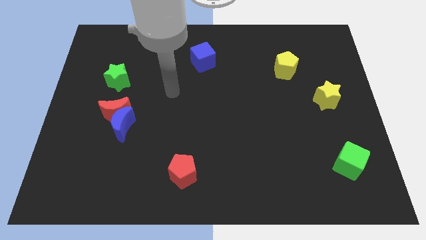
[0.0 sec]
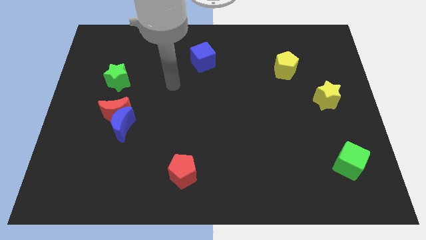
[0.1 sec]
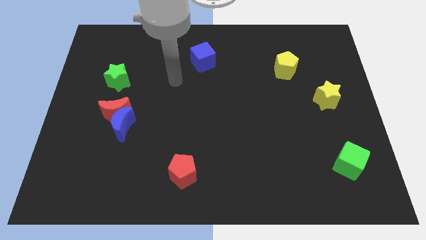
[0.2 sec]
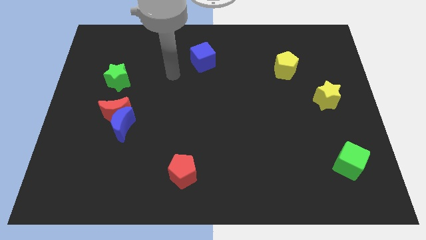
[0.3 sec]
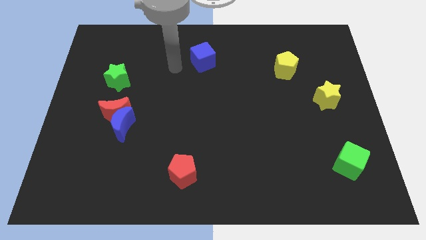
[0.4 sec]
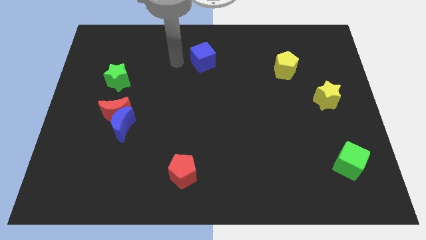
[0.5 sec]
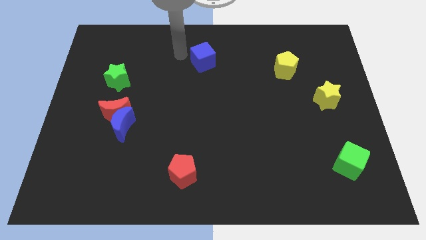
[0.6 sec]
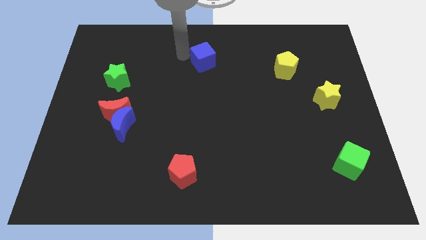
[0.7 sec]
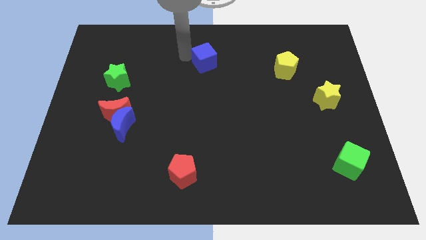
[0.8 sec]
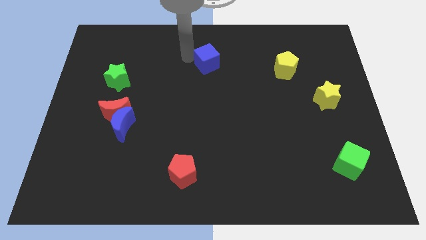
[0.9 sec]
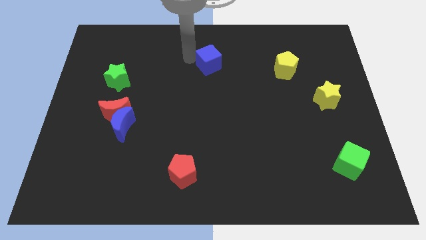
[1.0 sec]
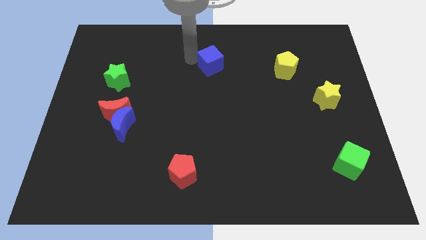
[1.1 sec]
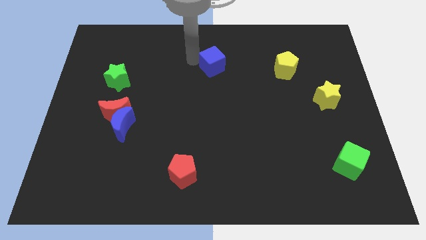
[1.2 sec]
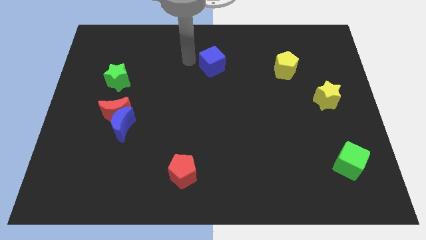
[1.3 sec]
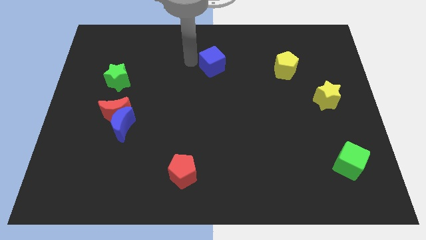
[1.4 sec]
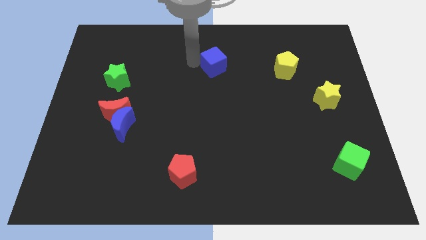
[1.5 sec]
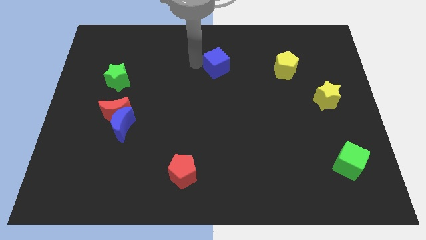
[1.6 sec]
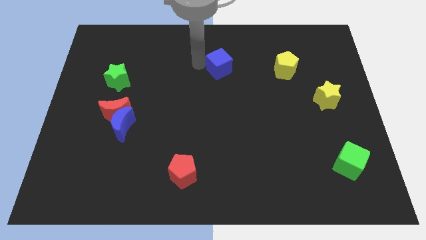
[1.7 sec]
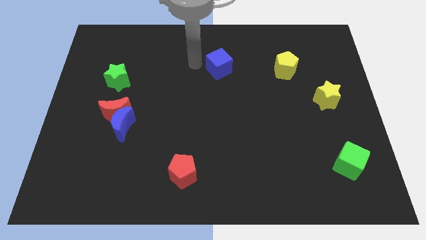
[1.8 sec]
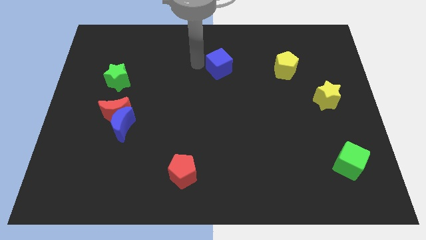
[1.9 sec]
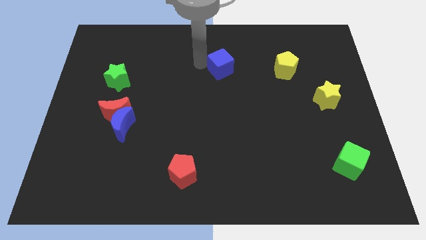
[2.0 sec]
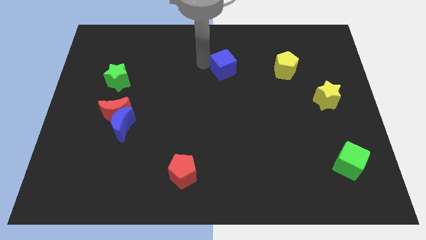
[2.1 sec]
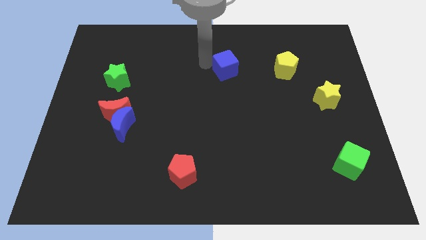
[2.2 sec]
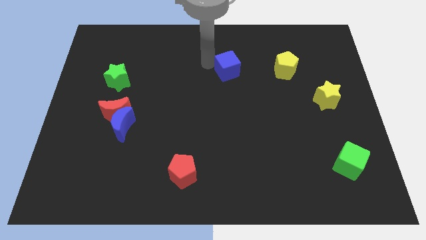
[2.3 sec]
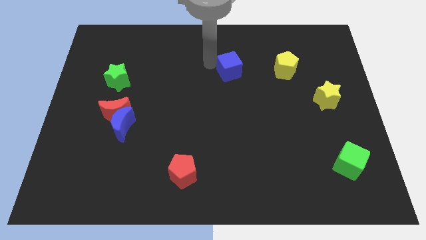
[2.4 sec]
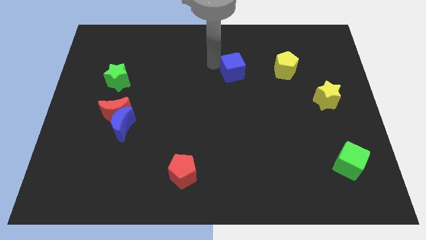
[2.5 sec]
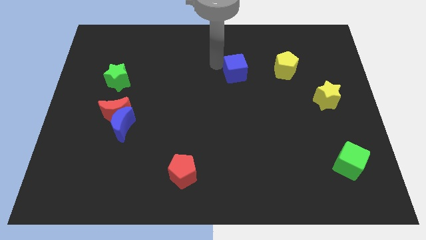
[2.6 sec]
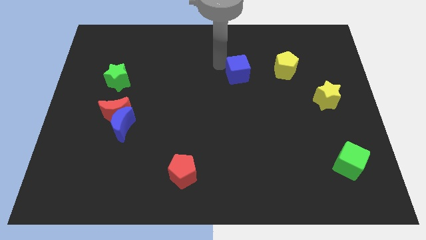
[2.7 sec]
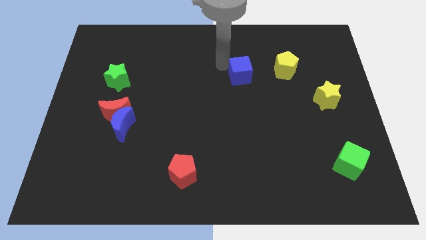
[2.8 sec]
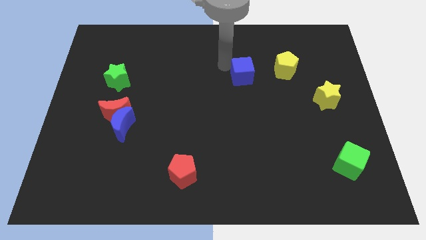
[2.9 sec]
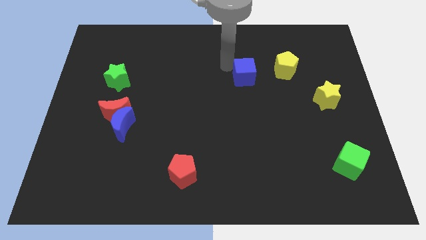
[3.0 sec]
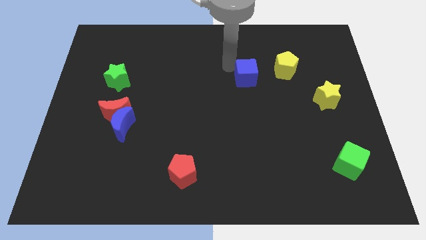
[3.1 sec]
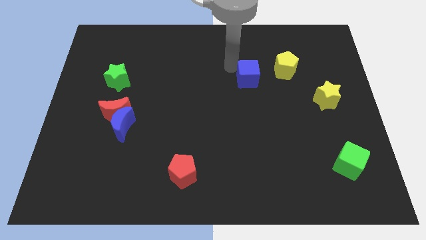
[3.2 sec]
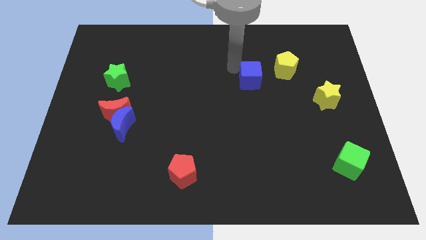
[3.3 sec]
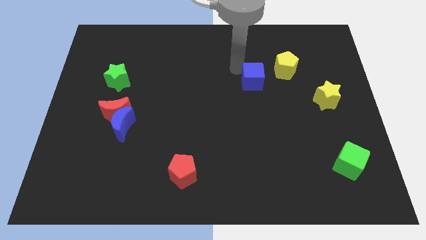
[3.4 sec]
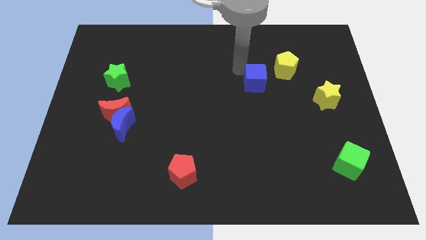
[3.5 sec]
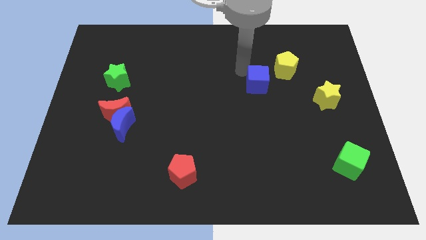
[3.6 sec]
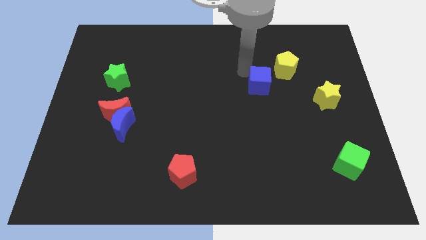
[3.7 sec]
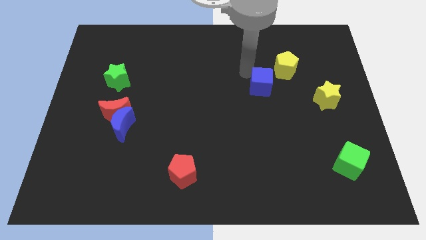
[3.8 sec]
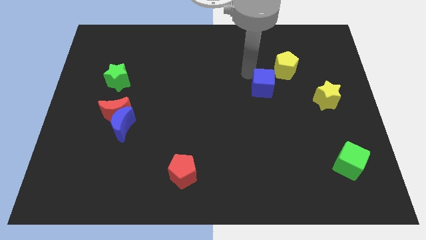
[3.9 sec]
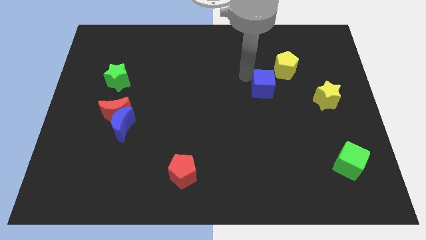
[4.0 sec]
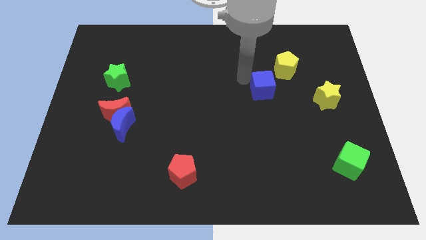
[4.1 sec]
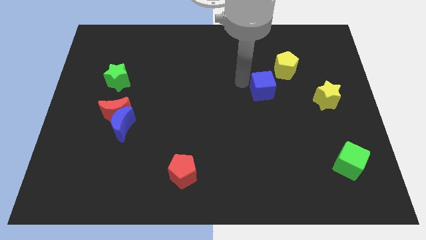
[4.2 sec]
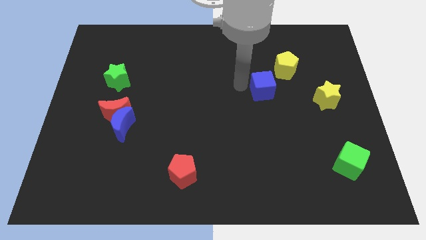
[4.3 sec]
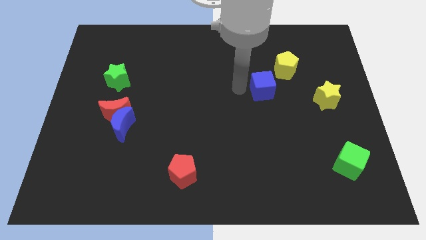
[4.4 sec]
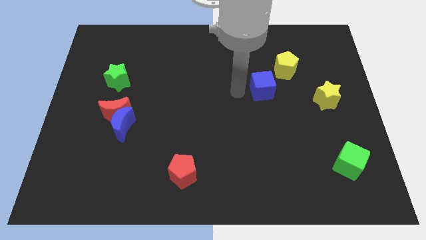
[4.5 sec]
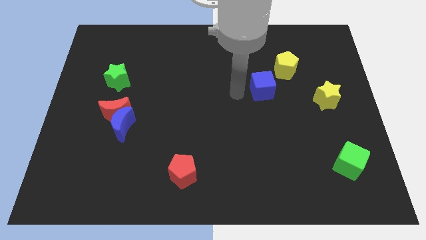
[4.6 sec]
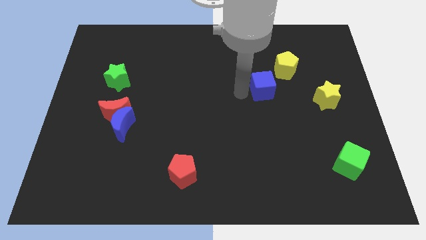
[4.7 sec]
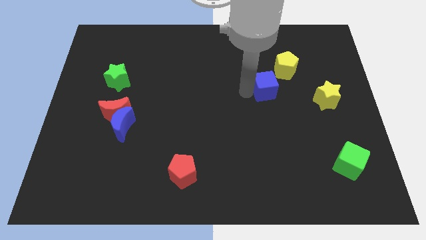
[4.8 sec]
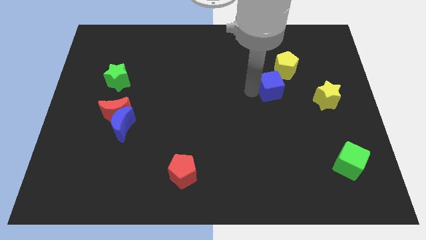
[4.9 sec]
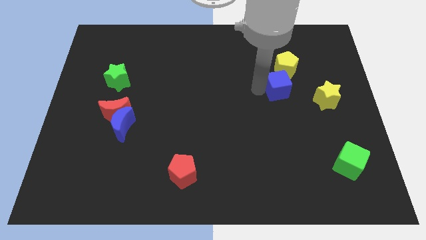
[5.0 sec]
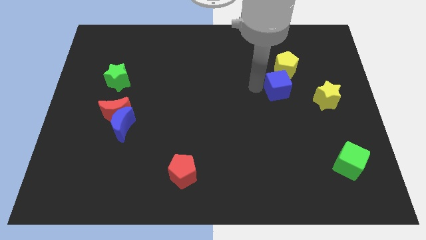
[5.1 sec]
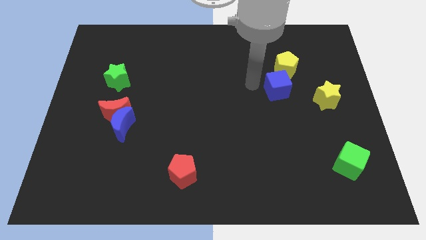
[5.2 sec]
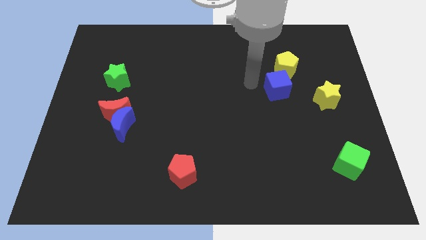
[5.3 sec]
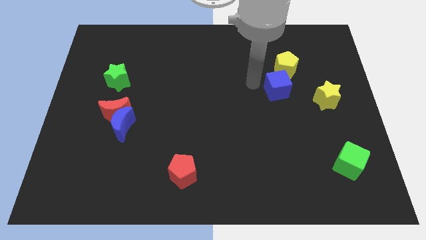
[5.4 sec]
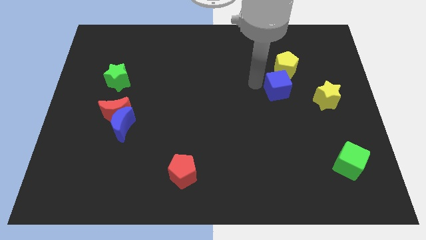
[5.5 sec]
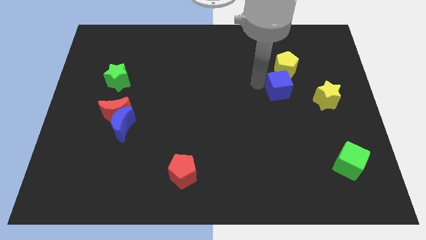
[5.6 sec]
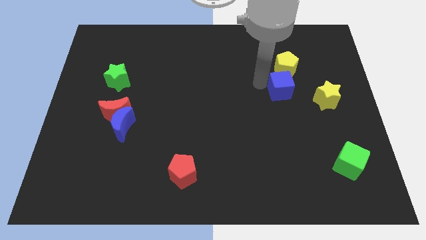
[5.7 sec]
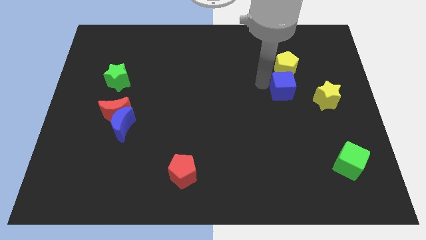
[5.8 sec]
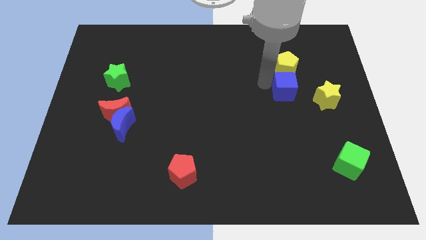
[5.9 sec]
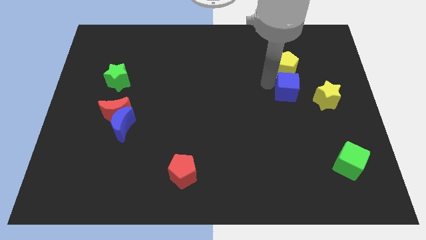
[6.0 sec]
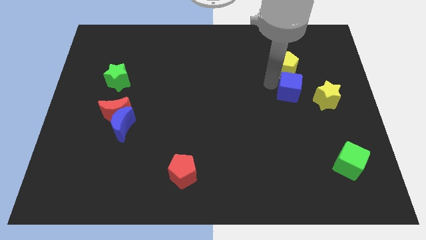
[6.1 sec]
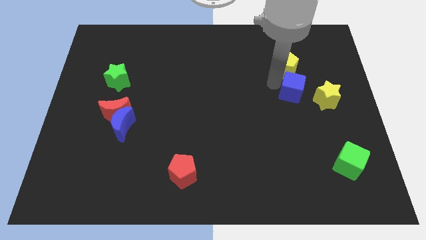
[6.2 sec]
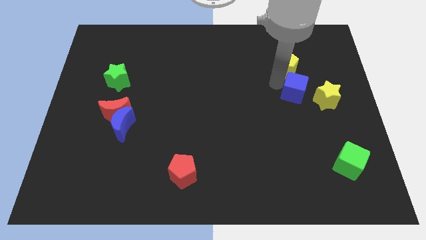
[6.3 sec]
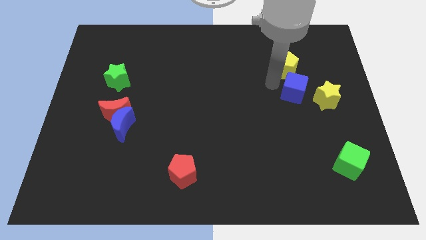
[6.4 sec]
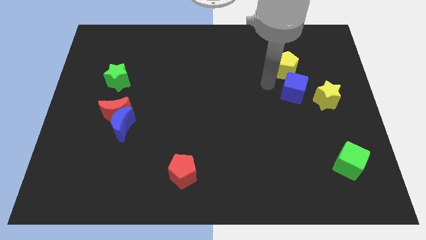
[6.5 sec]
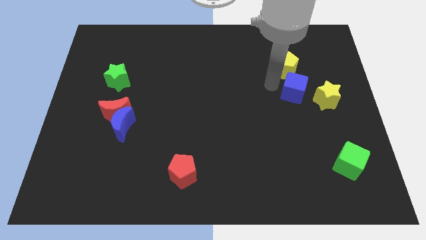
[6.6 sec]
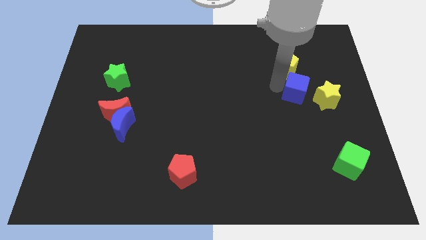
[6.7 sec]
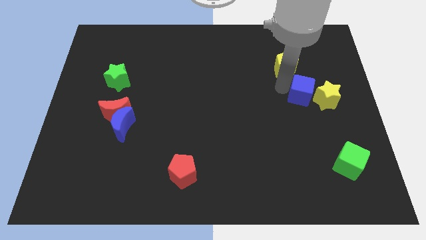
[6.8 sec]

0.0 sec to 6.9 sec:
push the blue cube close to the yellow star
